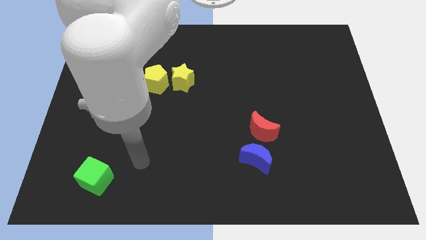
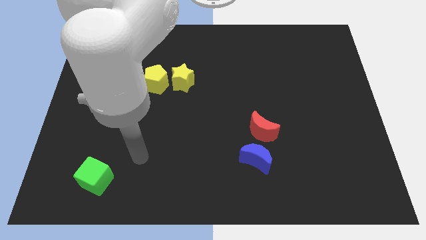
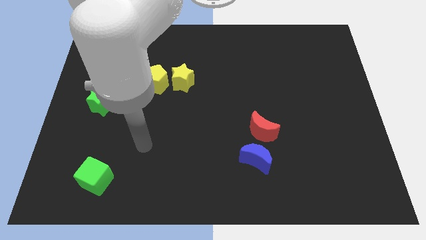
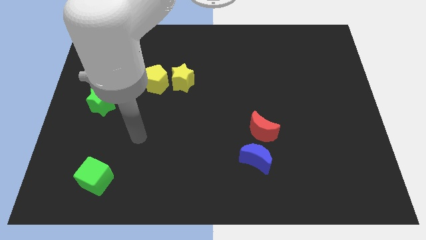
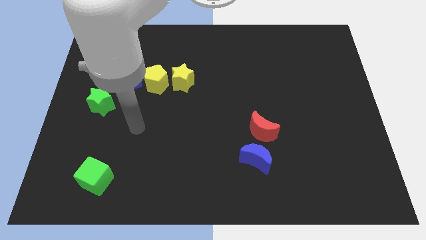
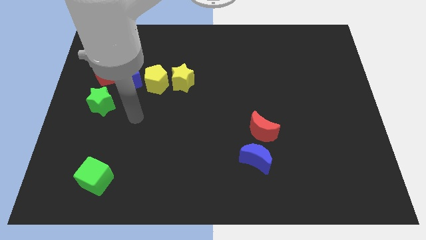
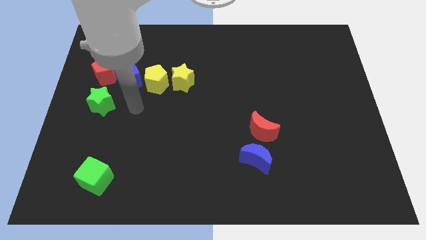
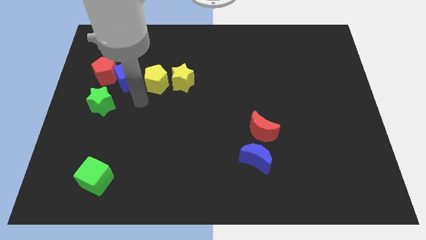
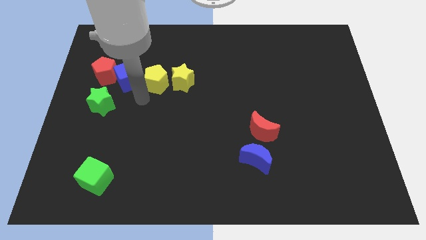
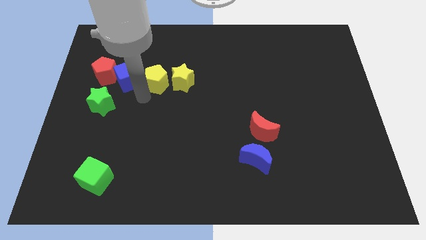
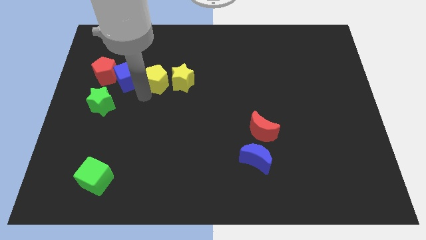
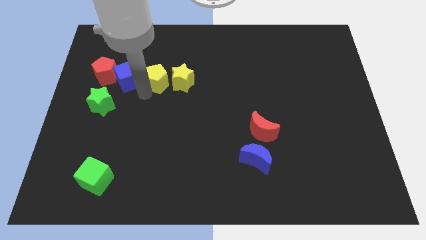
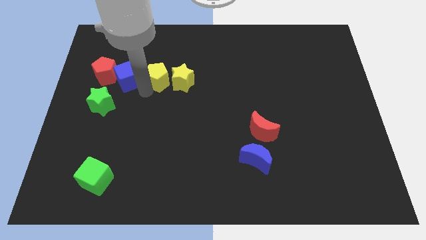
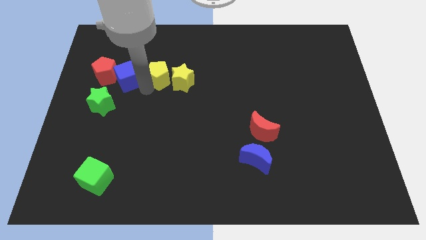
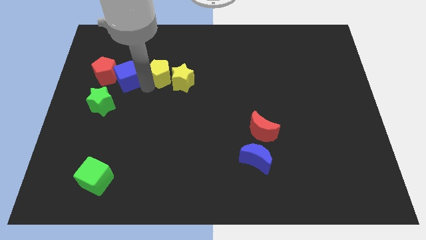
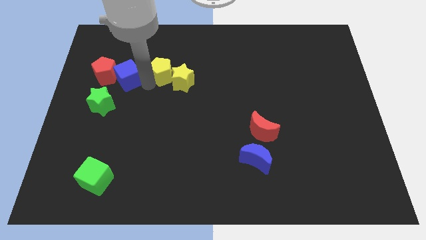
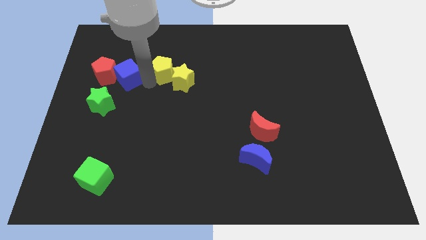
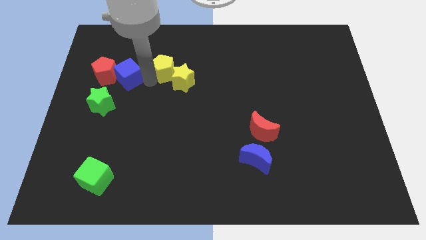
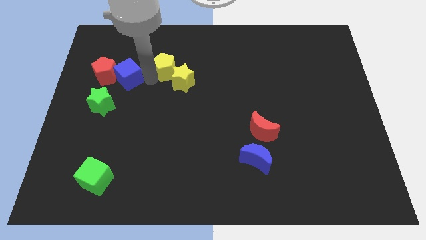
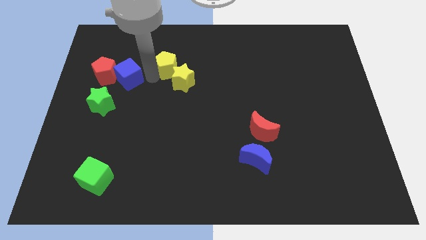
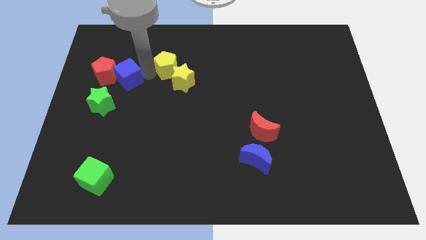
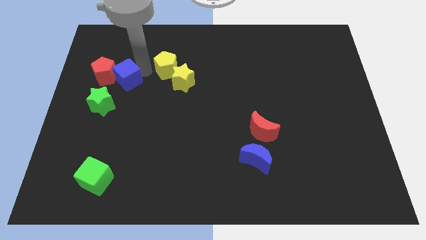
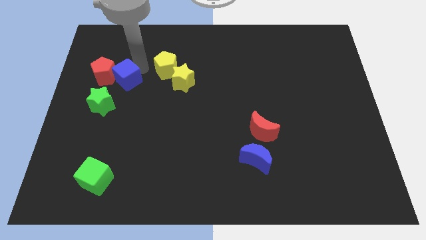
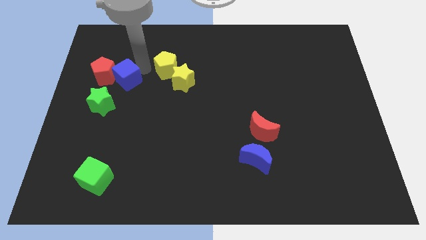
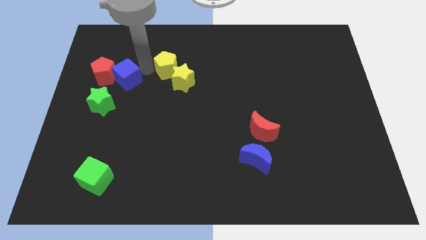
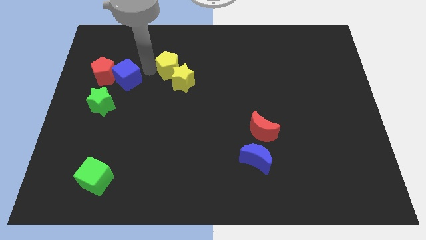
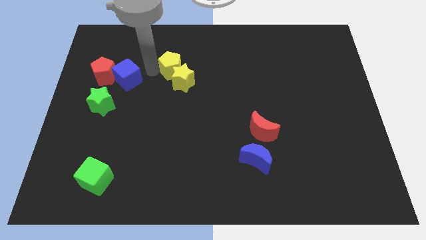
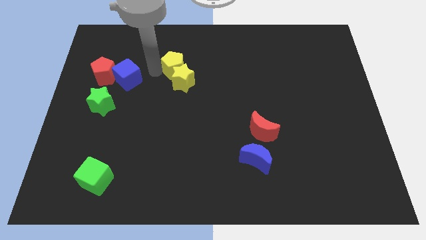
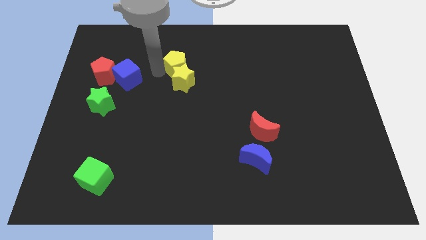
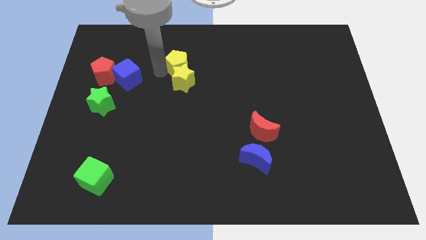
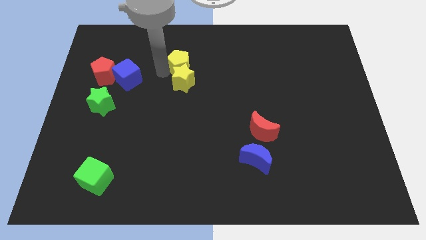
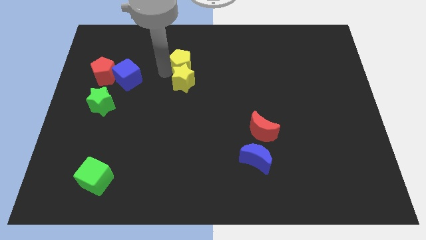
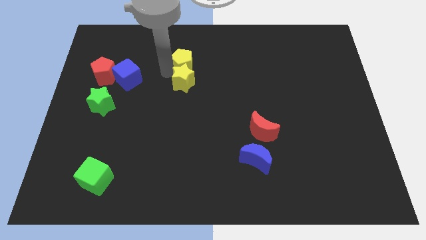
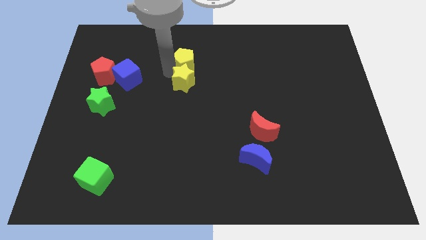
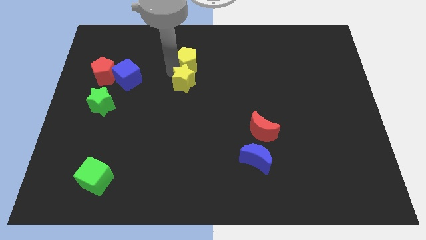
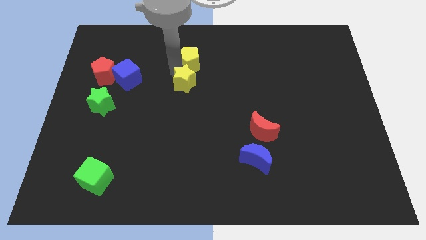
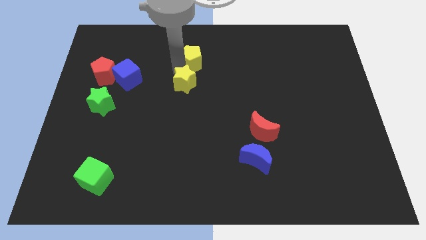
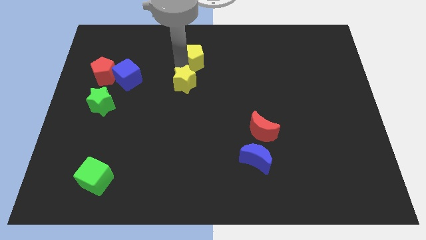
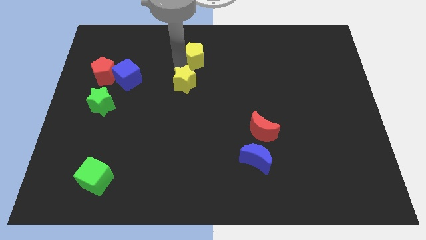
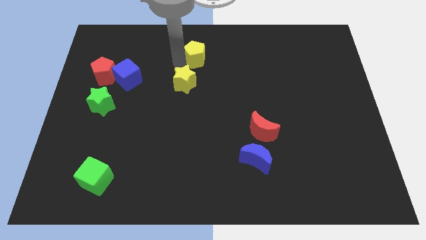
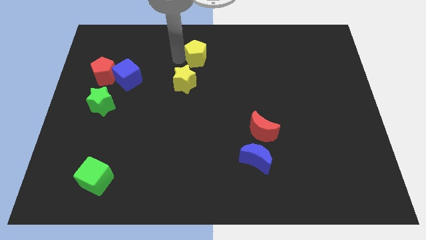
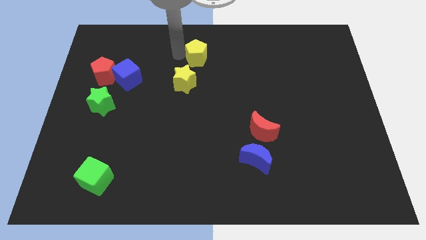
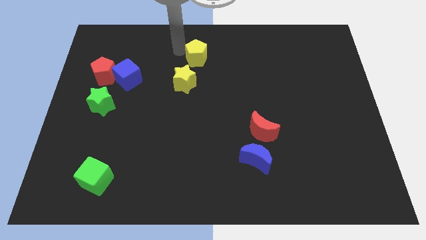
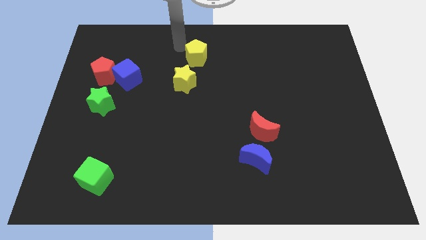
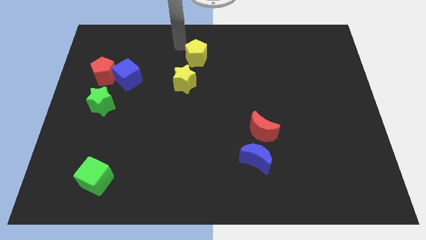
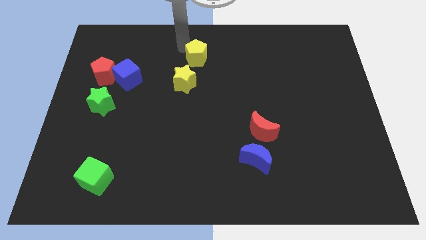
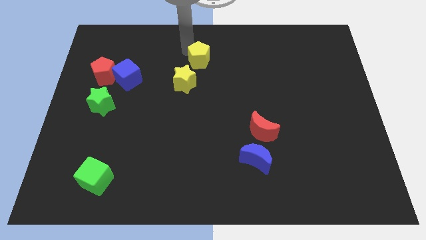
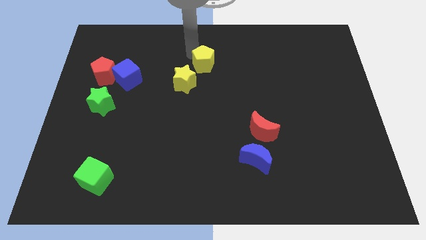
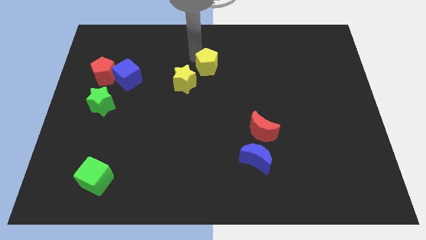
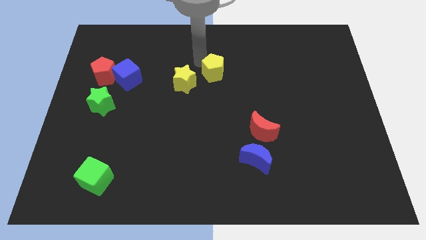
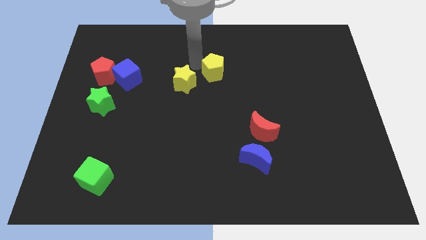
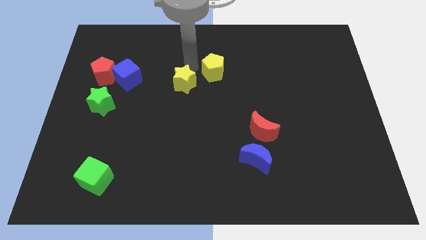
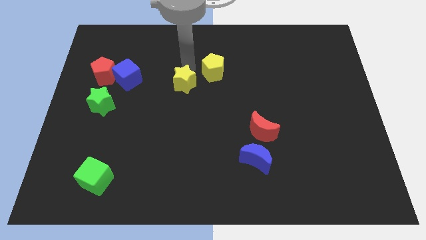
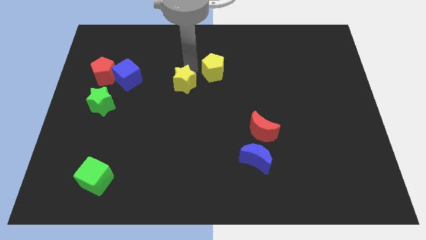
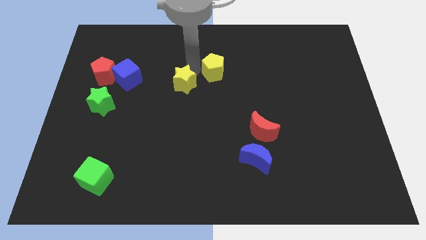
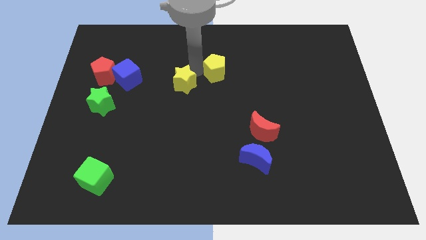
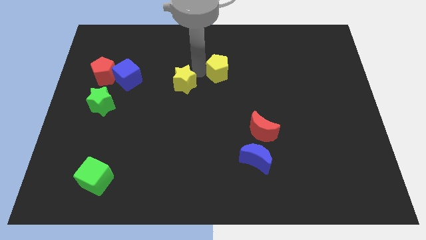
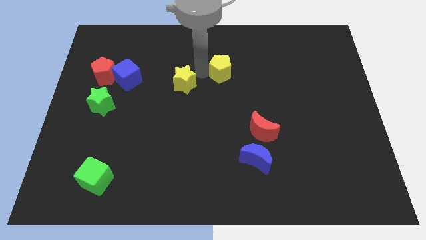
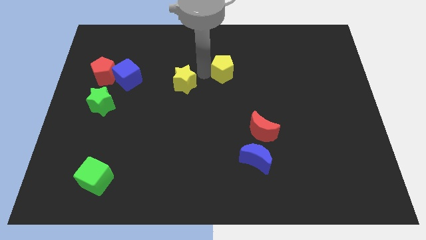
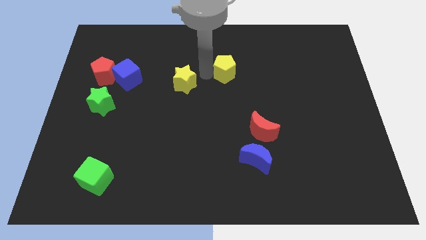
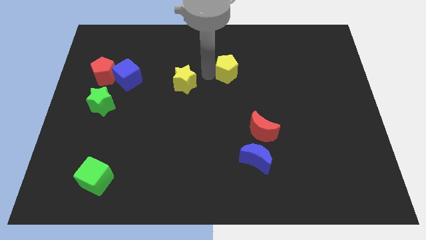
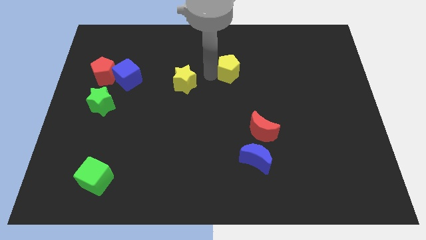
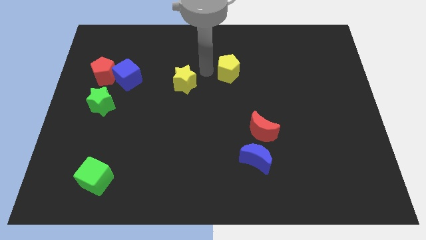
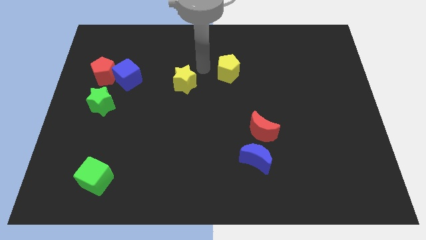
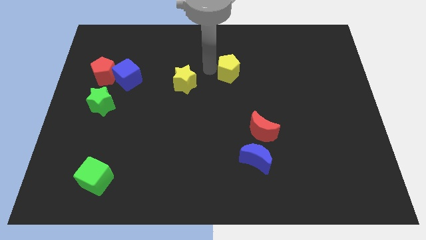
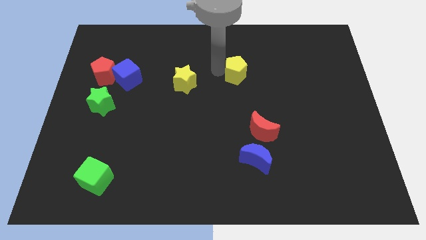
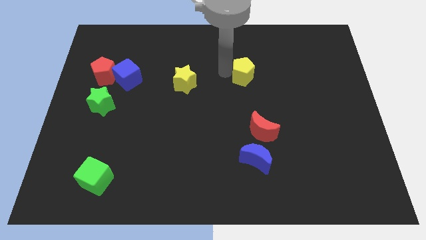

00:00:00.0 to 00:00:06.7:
move the yellow pentagon right

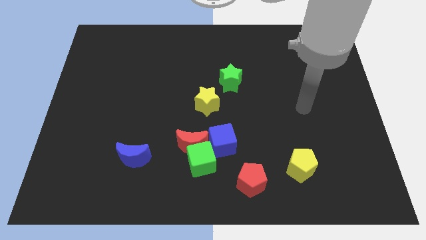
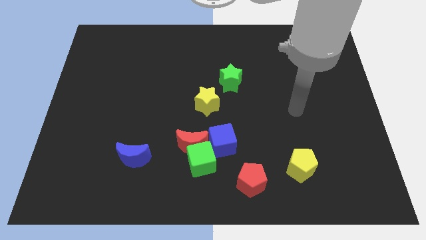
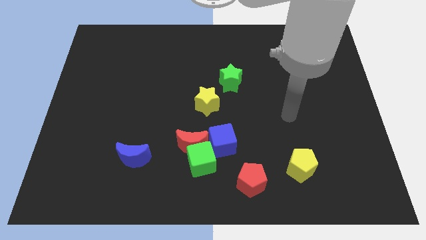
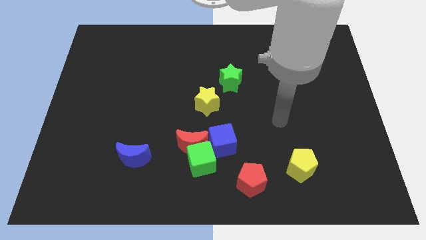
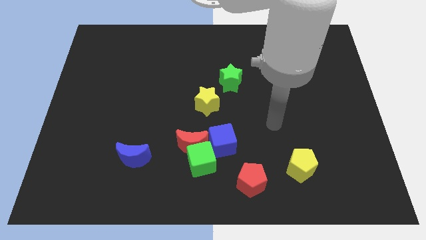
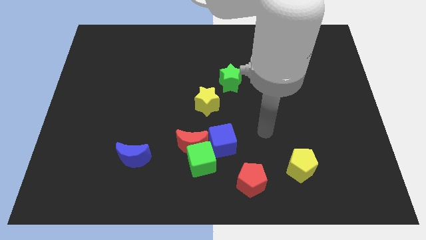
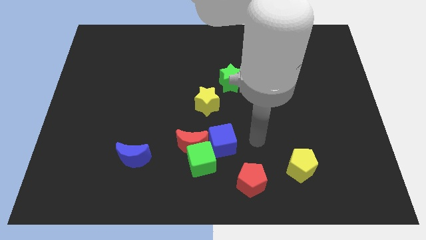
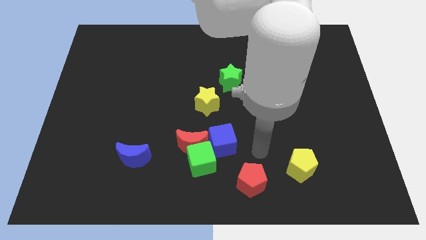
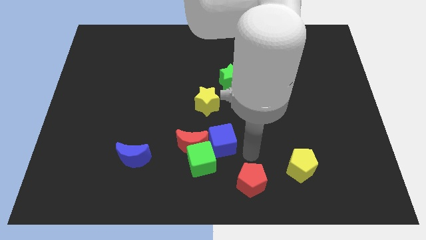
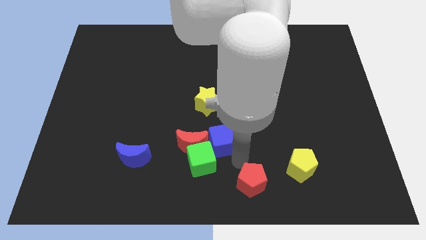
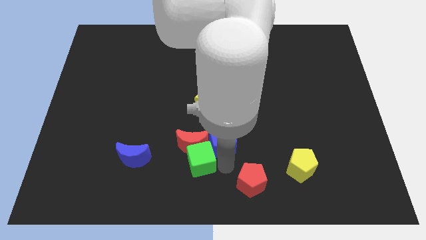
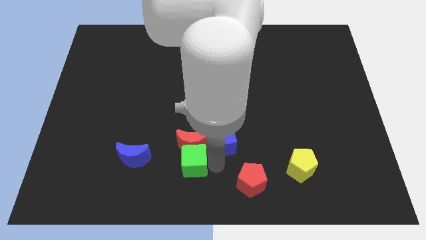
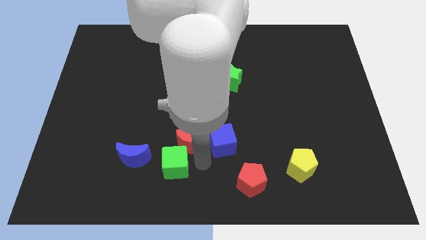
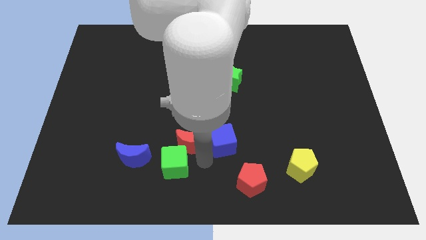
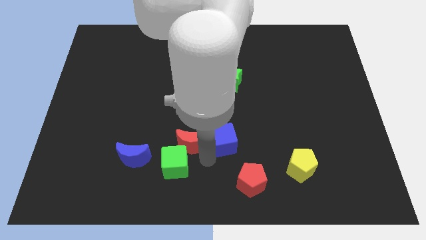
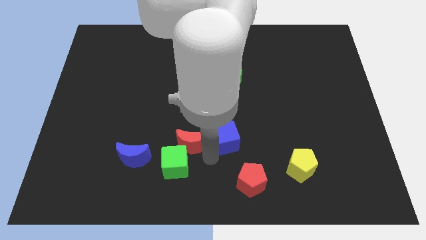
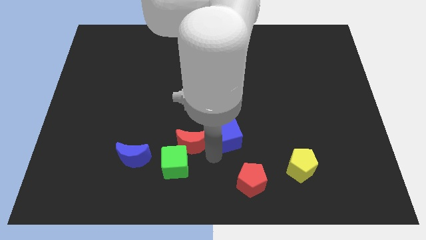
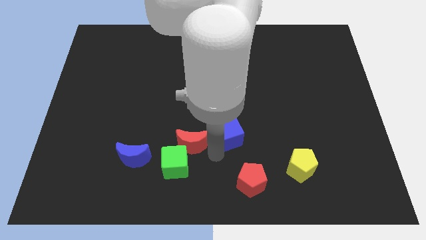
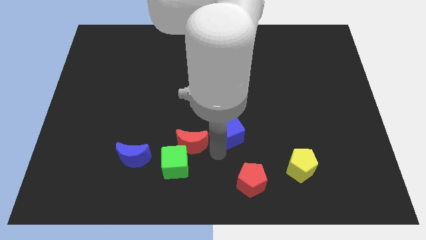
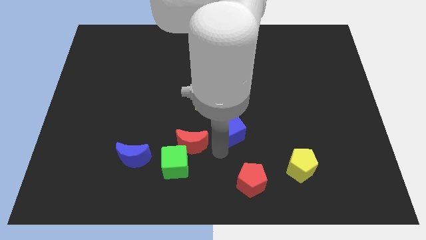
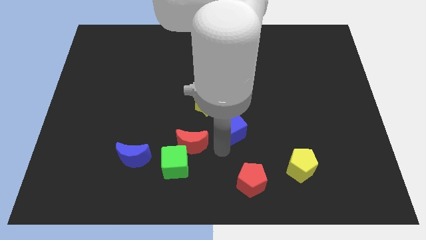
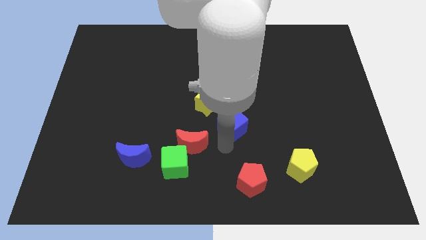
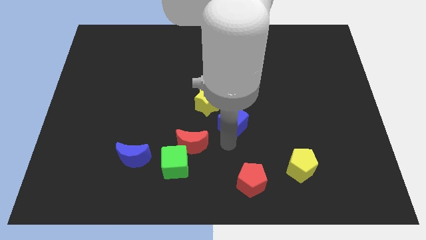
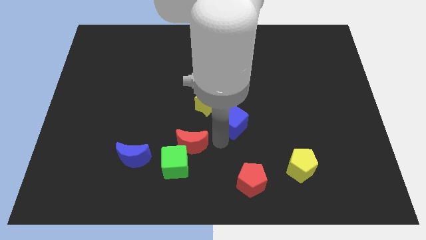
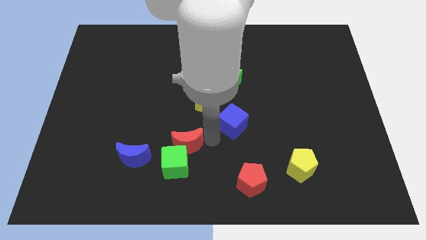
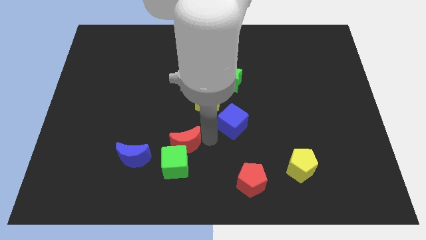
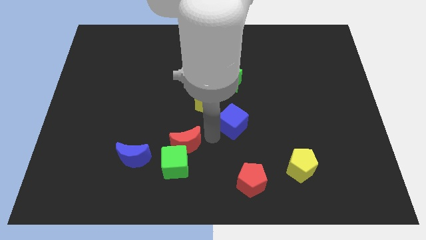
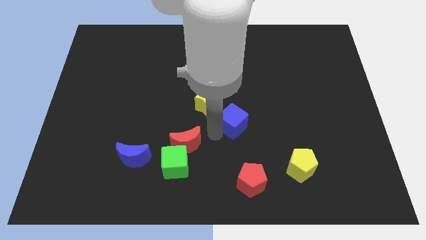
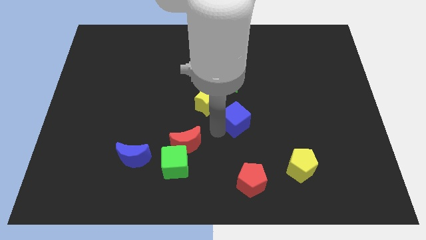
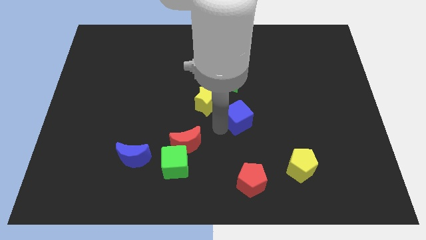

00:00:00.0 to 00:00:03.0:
slide the blue cube a bit up and to the right
